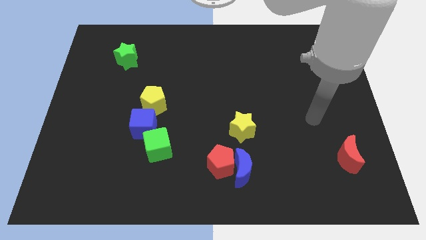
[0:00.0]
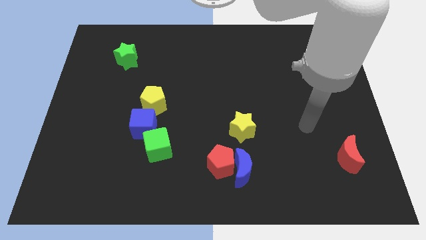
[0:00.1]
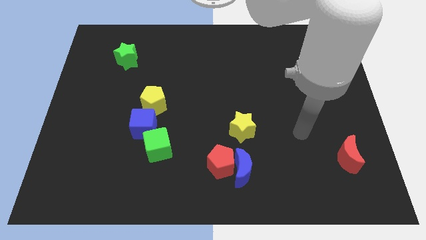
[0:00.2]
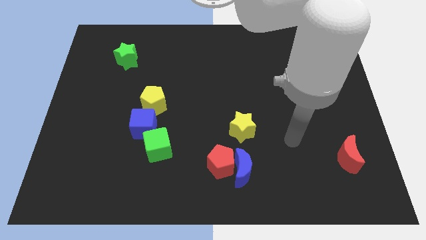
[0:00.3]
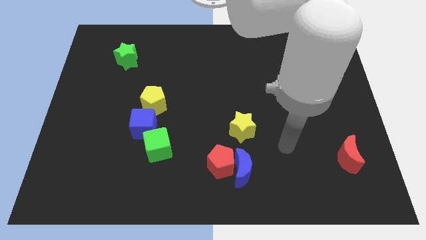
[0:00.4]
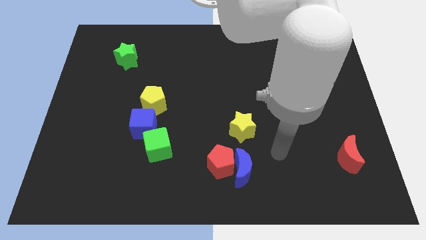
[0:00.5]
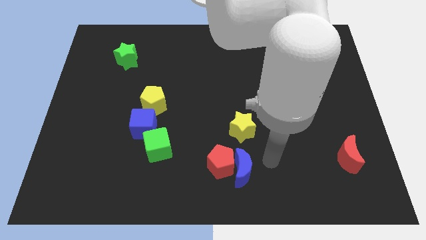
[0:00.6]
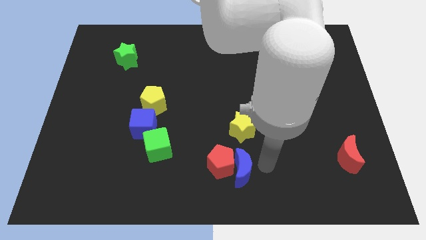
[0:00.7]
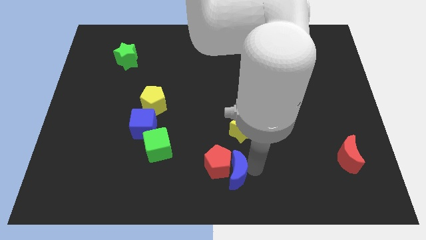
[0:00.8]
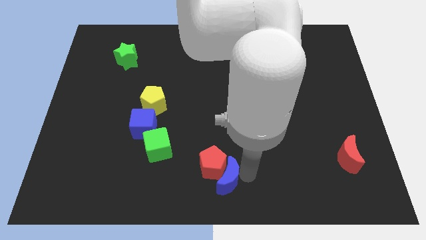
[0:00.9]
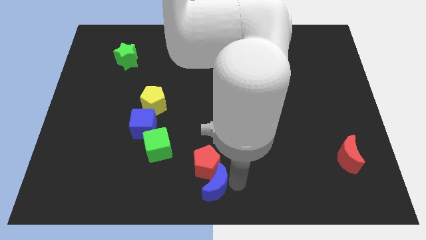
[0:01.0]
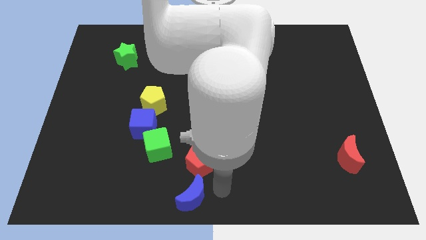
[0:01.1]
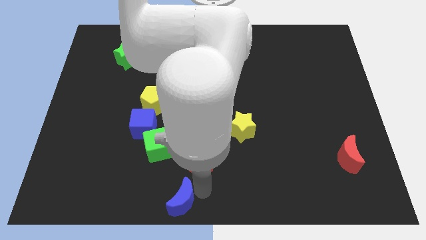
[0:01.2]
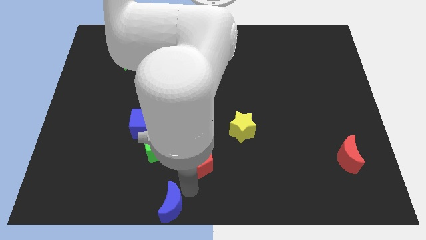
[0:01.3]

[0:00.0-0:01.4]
pull the red pentagon apart from the blue moon

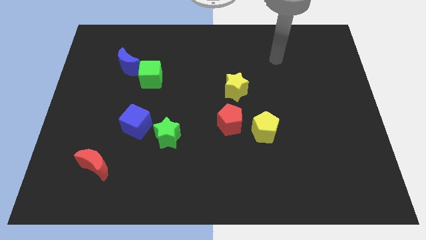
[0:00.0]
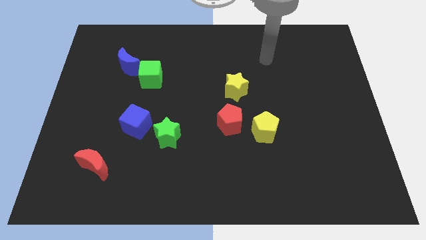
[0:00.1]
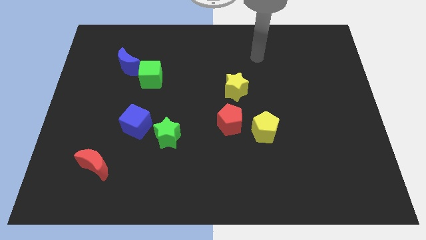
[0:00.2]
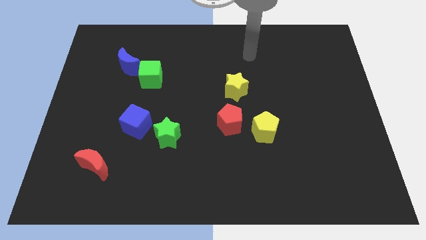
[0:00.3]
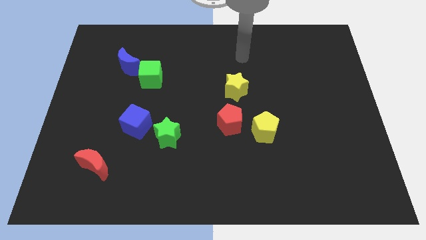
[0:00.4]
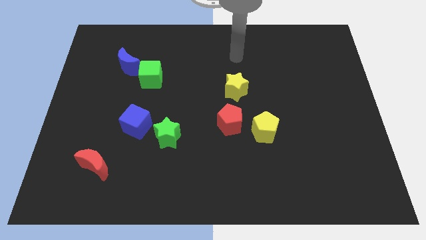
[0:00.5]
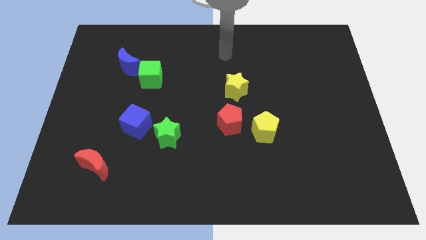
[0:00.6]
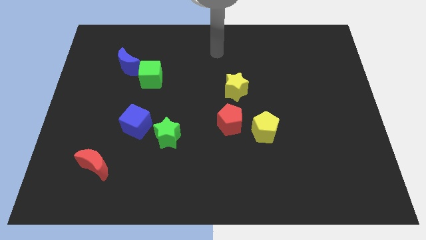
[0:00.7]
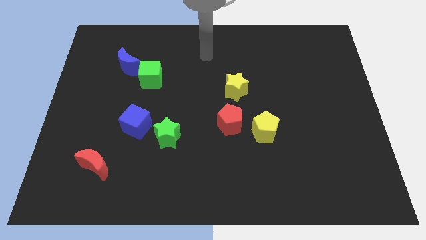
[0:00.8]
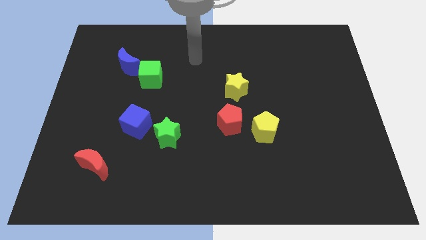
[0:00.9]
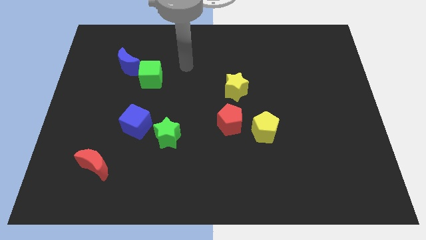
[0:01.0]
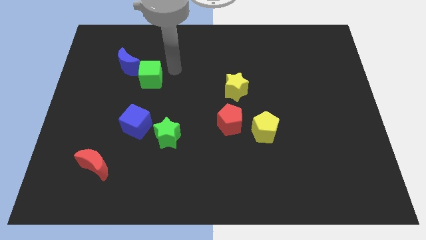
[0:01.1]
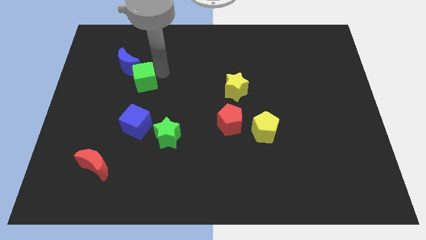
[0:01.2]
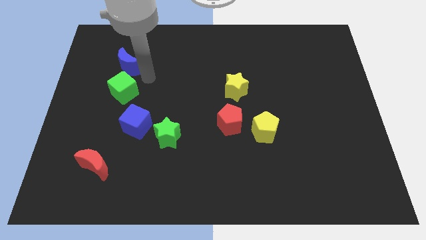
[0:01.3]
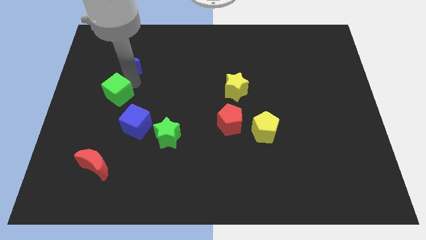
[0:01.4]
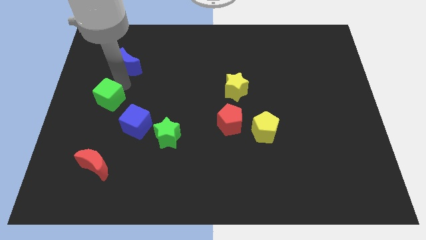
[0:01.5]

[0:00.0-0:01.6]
pull the blue moon apart from the green cube

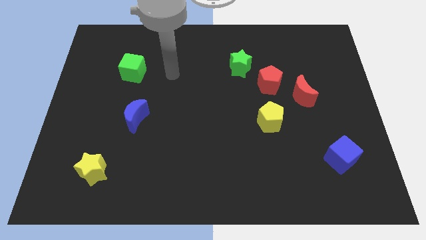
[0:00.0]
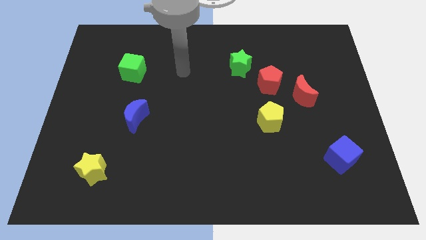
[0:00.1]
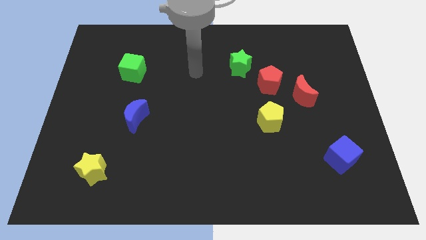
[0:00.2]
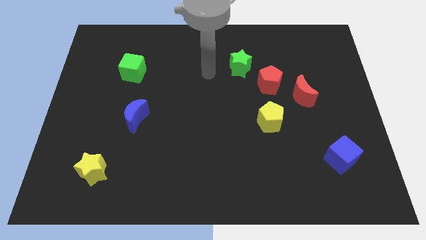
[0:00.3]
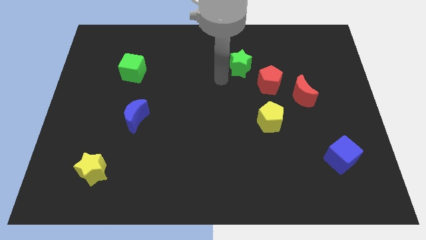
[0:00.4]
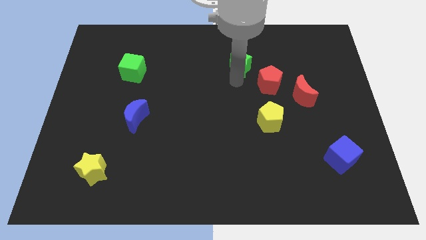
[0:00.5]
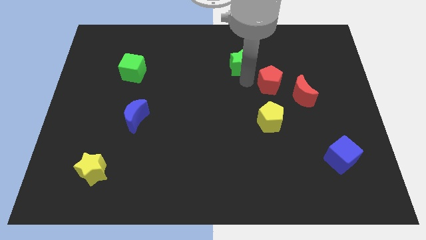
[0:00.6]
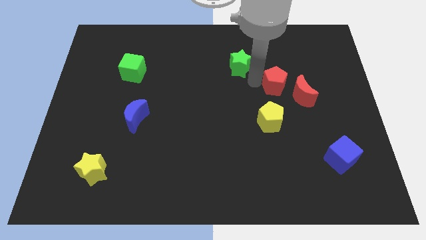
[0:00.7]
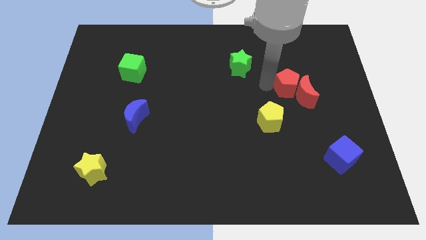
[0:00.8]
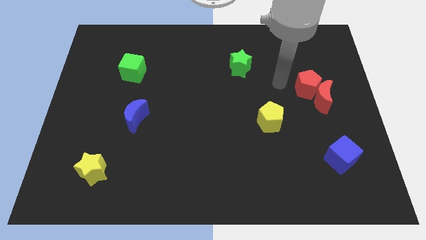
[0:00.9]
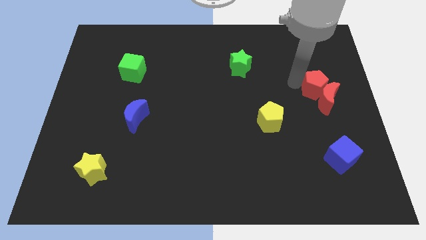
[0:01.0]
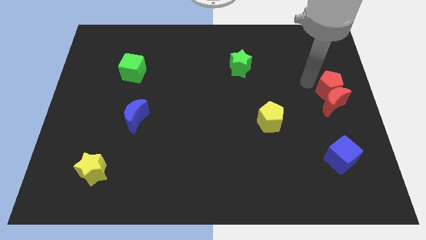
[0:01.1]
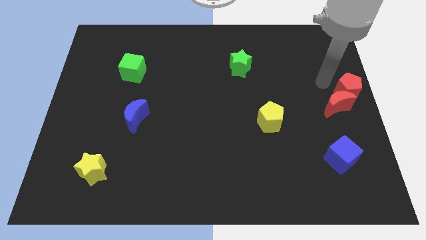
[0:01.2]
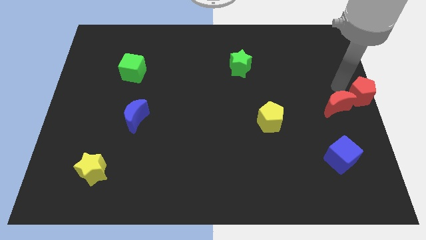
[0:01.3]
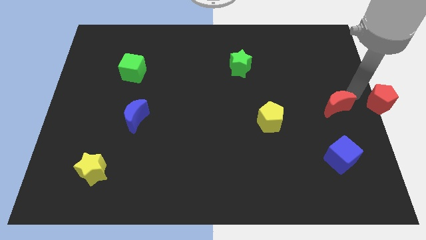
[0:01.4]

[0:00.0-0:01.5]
move the red moon away from the red pentagon

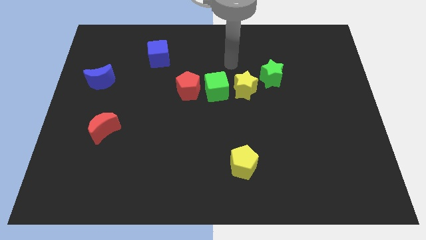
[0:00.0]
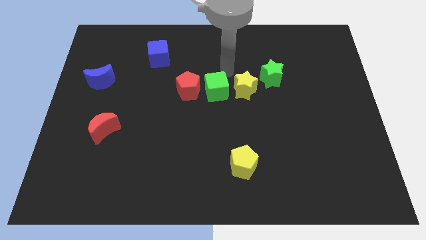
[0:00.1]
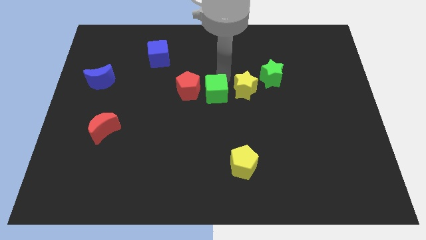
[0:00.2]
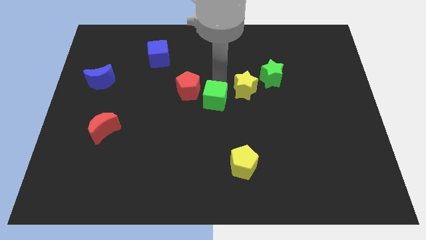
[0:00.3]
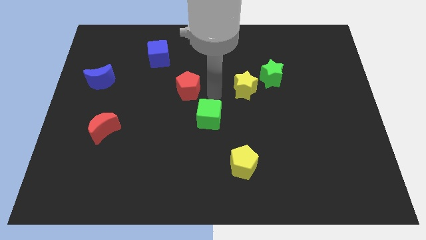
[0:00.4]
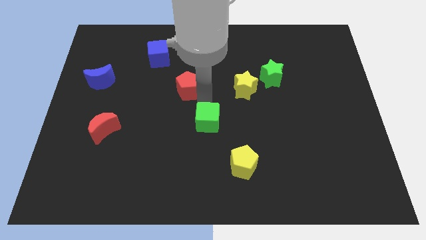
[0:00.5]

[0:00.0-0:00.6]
separate the red pentagon from the green cube

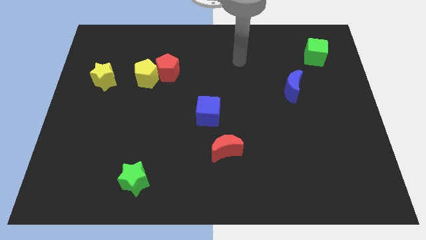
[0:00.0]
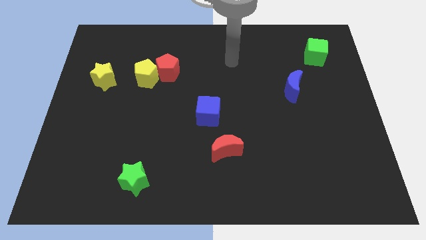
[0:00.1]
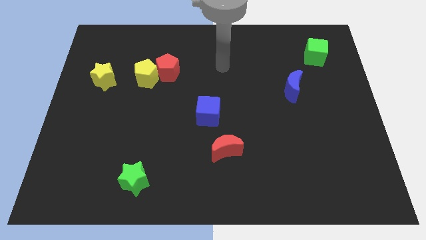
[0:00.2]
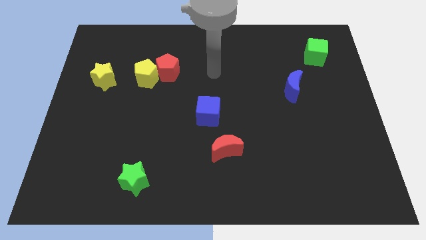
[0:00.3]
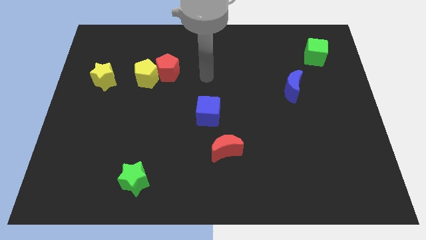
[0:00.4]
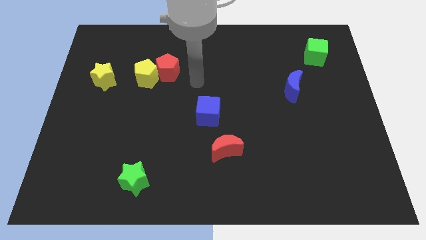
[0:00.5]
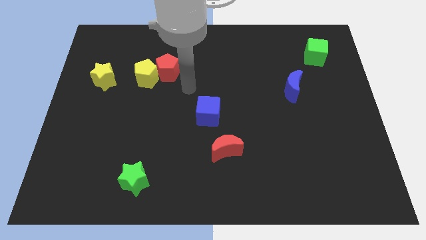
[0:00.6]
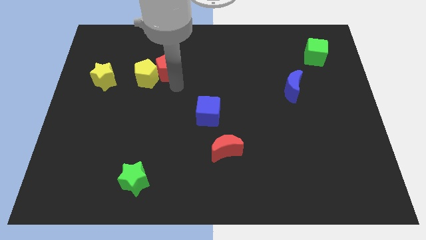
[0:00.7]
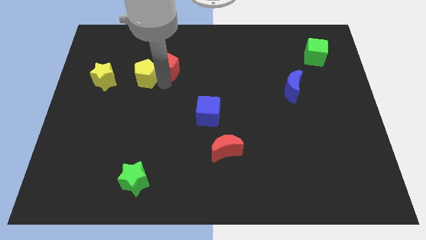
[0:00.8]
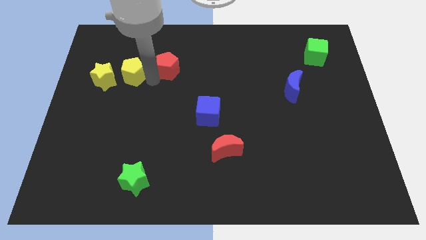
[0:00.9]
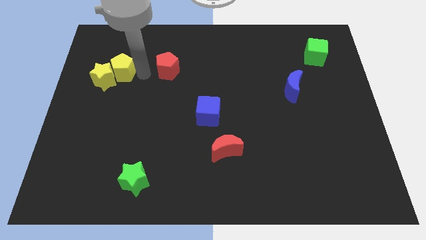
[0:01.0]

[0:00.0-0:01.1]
pull the red pentagon apart from the yellow pentagon

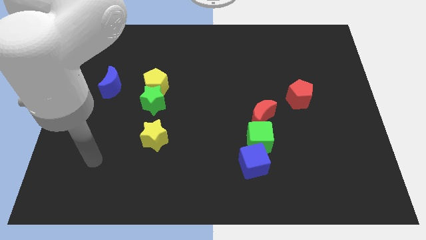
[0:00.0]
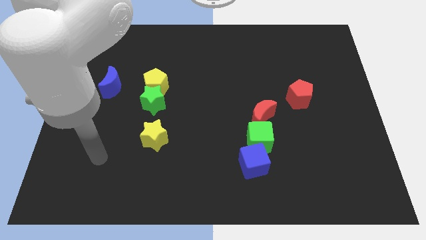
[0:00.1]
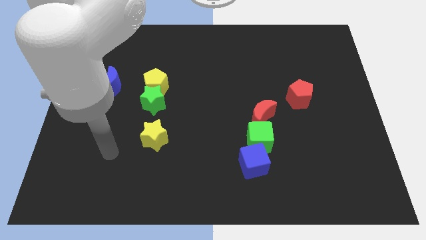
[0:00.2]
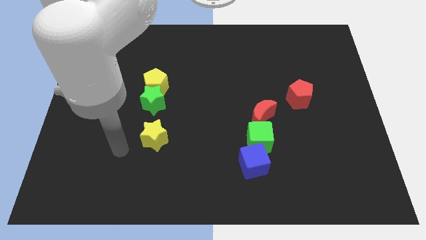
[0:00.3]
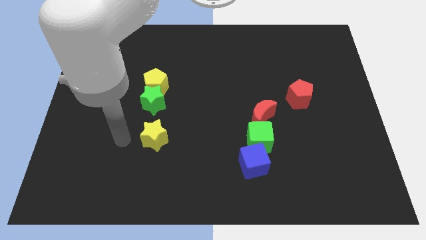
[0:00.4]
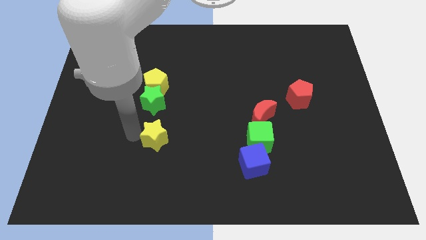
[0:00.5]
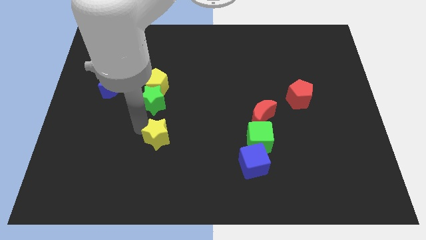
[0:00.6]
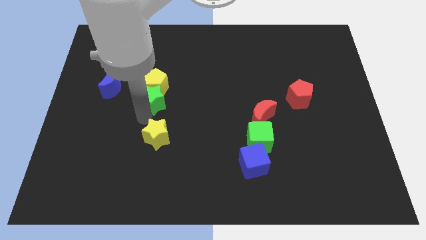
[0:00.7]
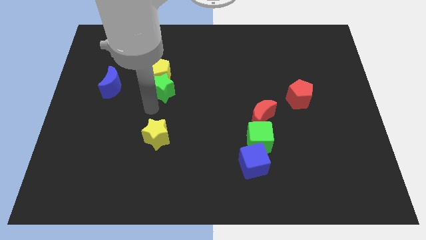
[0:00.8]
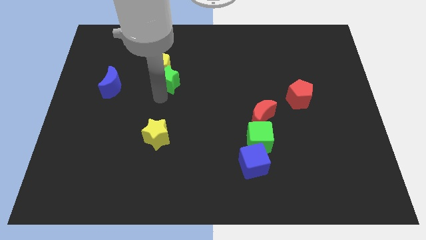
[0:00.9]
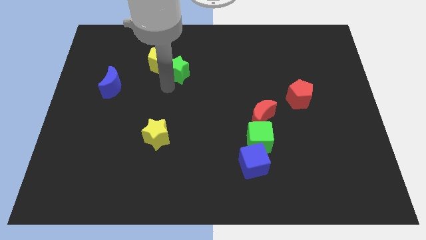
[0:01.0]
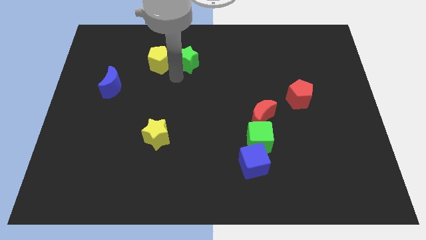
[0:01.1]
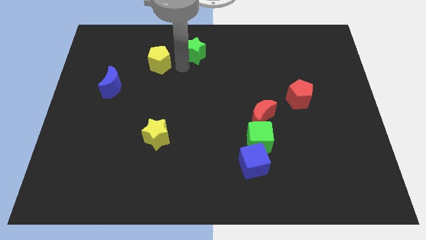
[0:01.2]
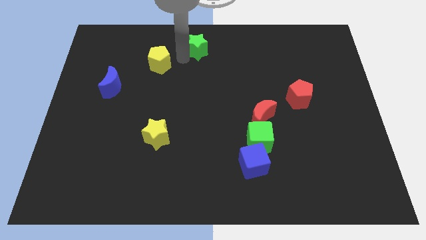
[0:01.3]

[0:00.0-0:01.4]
pull the yellow pentagon apart from the green star

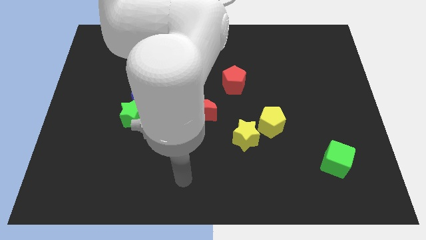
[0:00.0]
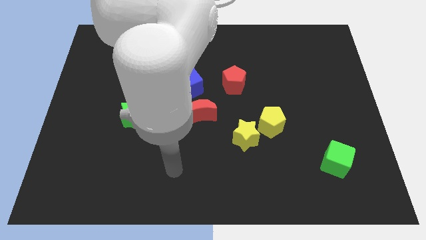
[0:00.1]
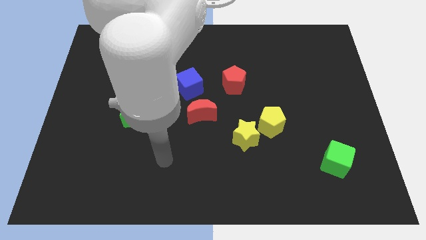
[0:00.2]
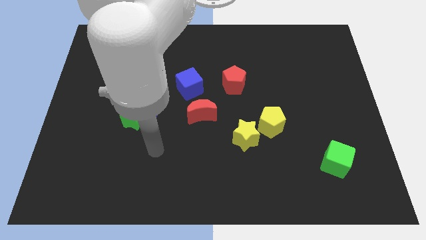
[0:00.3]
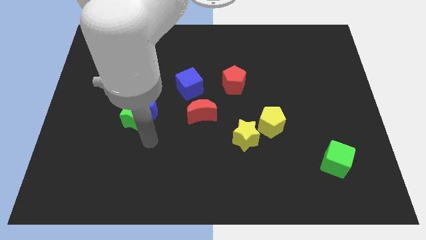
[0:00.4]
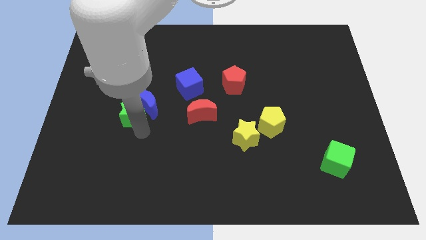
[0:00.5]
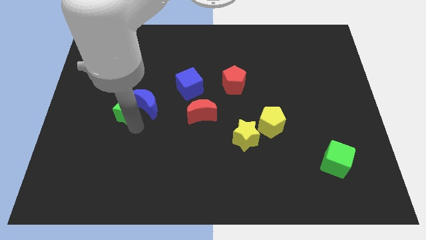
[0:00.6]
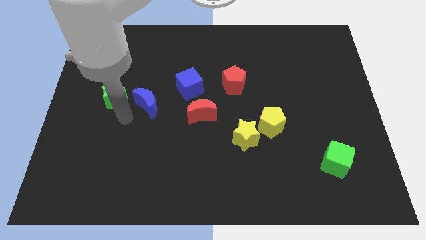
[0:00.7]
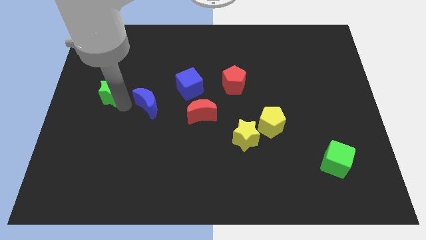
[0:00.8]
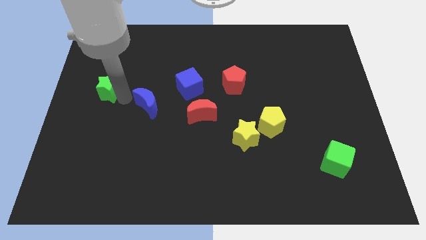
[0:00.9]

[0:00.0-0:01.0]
pull the blue moon apart from the green star

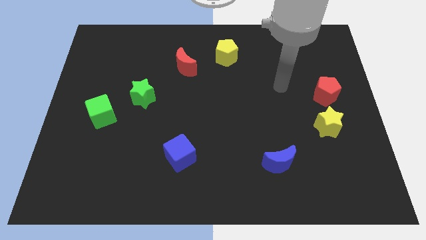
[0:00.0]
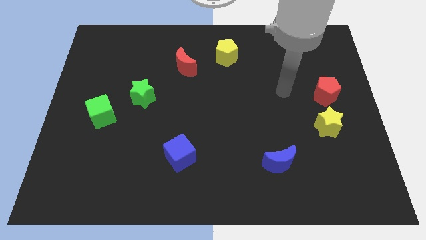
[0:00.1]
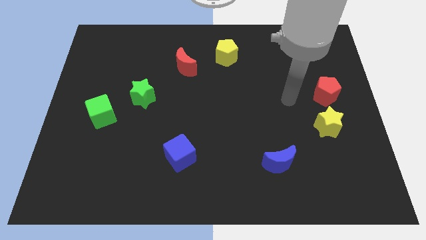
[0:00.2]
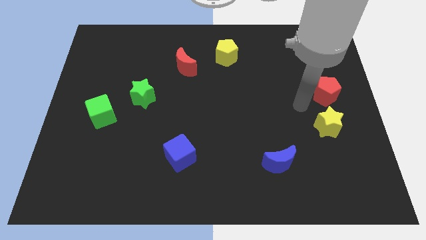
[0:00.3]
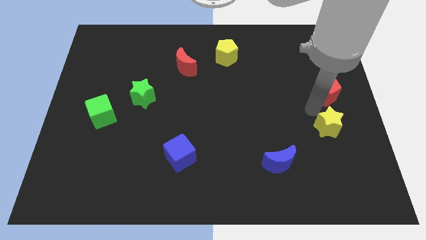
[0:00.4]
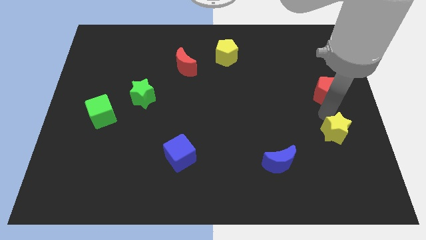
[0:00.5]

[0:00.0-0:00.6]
pull the red pentagon apart from the yellow star
